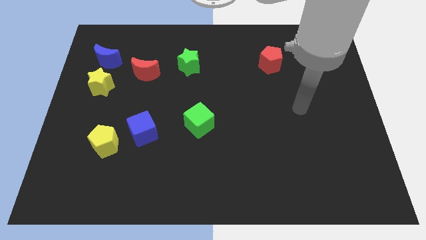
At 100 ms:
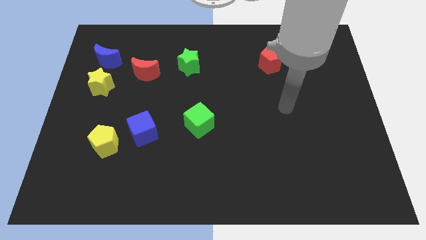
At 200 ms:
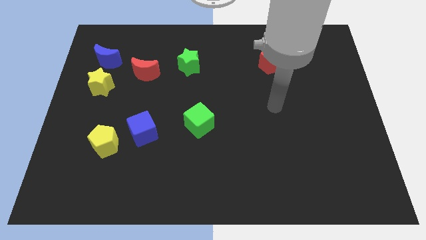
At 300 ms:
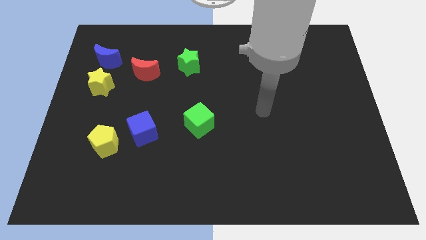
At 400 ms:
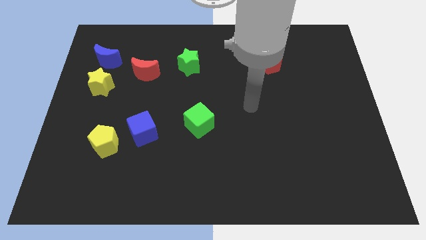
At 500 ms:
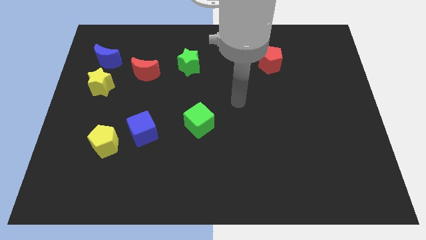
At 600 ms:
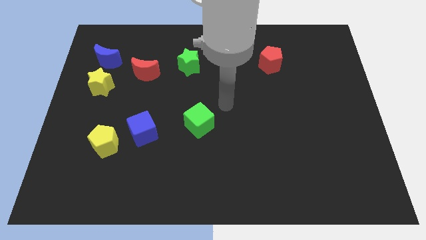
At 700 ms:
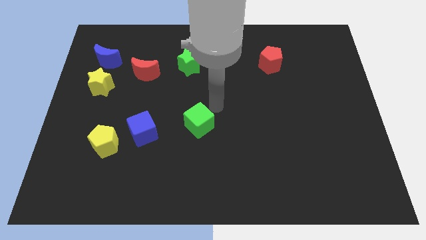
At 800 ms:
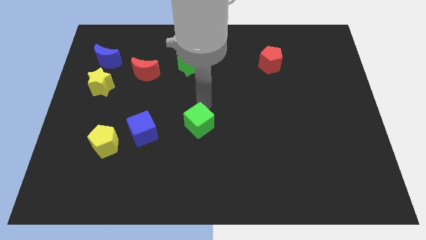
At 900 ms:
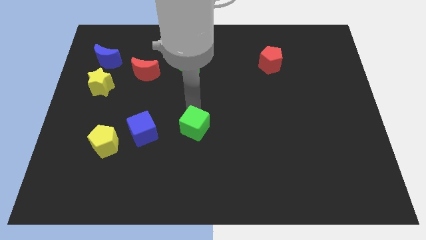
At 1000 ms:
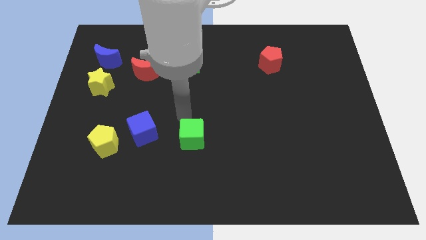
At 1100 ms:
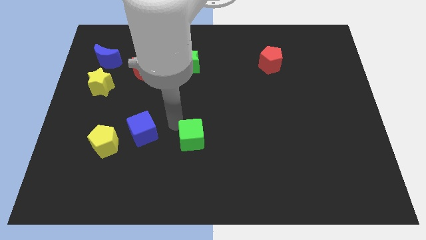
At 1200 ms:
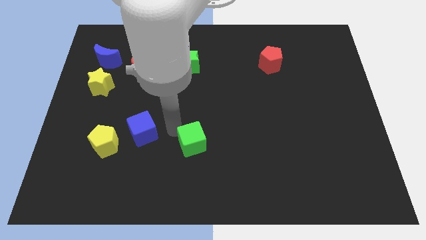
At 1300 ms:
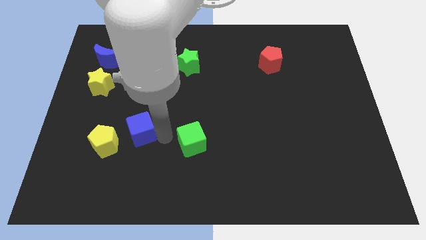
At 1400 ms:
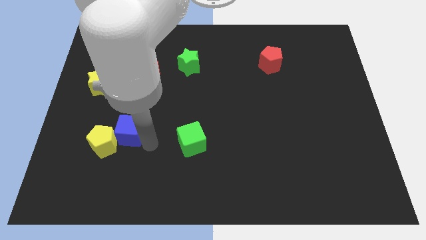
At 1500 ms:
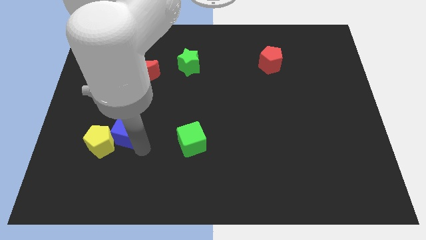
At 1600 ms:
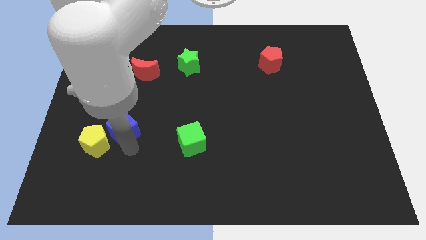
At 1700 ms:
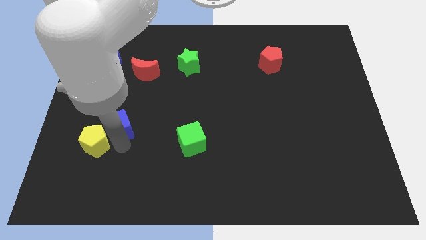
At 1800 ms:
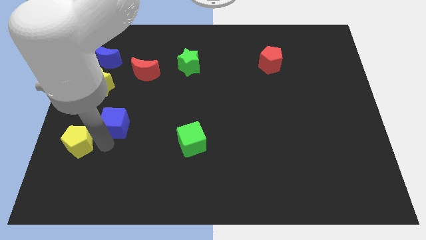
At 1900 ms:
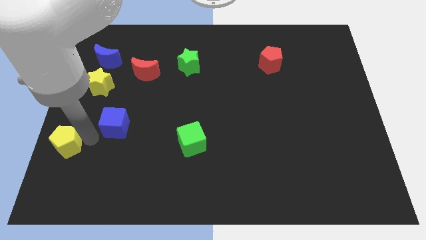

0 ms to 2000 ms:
move the blue cube away from the yellow pentagon

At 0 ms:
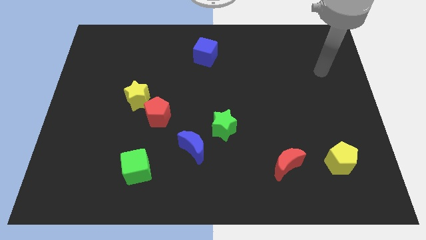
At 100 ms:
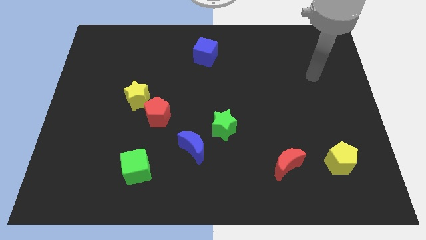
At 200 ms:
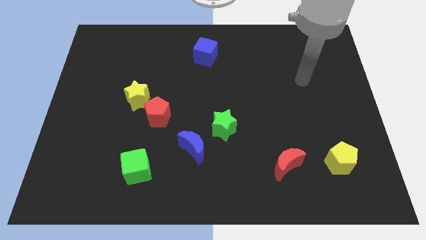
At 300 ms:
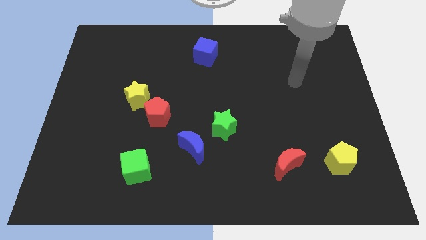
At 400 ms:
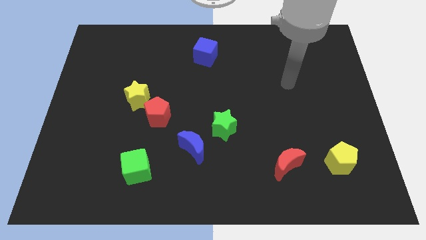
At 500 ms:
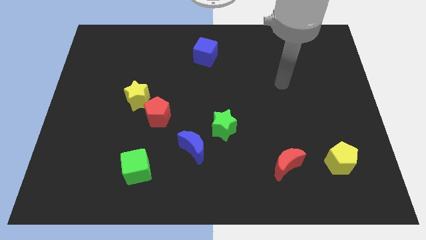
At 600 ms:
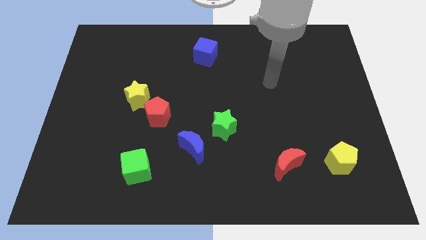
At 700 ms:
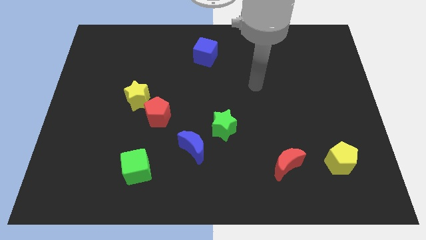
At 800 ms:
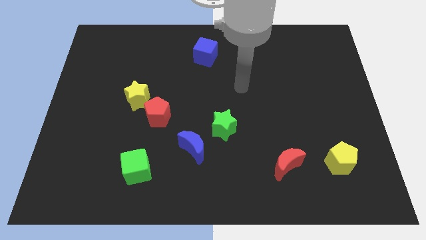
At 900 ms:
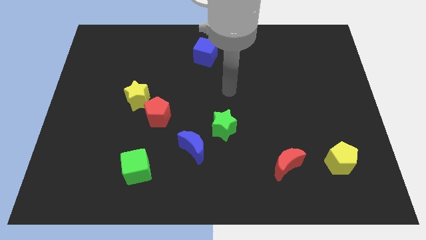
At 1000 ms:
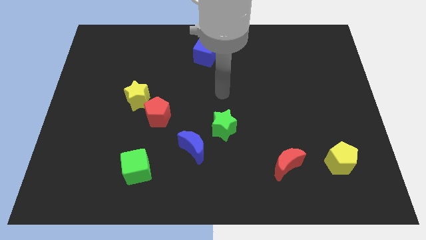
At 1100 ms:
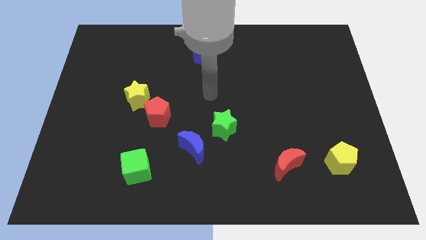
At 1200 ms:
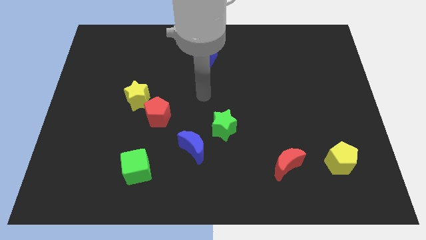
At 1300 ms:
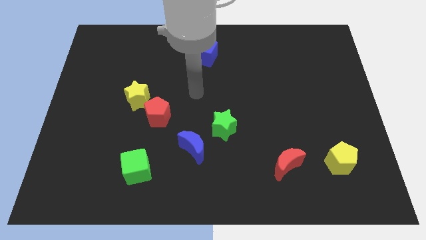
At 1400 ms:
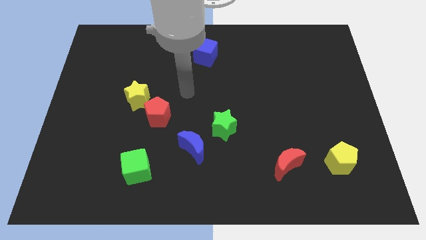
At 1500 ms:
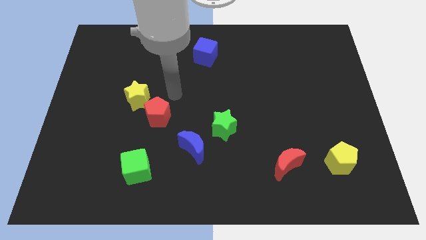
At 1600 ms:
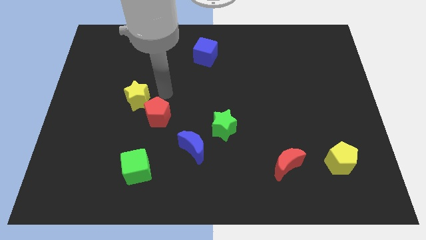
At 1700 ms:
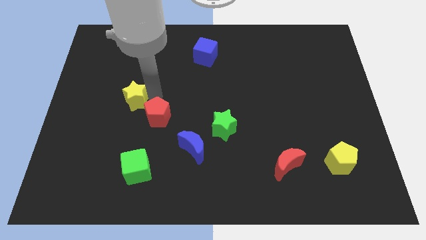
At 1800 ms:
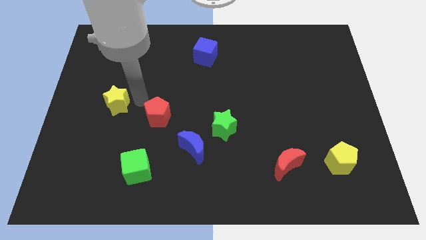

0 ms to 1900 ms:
separate the red pentagon from the yellow star

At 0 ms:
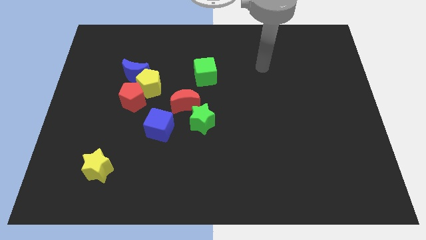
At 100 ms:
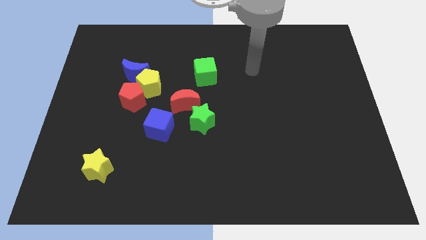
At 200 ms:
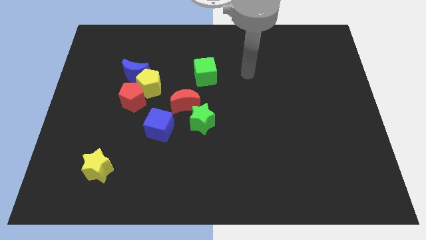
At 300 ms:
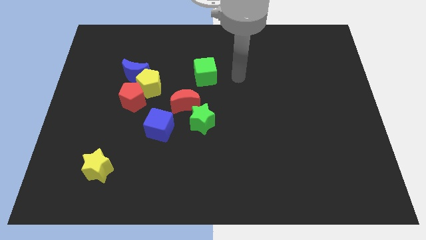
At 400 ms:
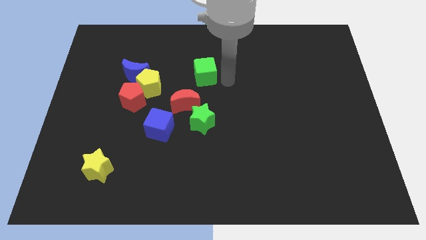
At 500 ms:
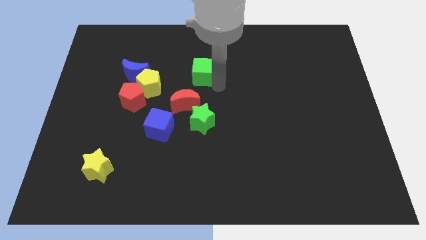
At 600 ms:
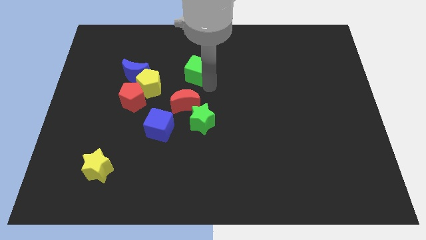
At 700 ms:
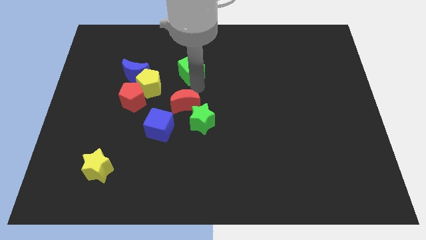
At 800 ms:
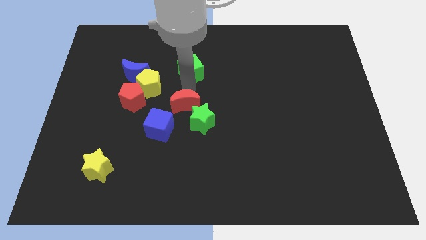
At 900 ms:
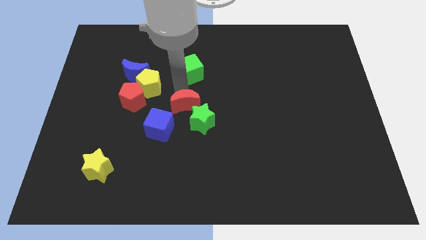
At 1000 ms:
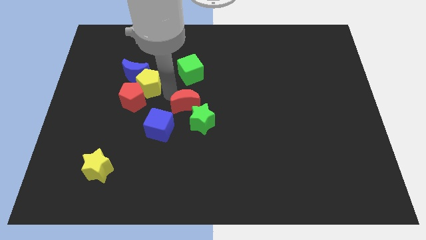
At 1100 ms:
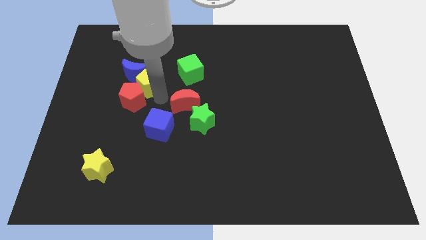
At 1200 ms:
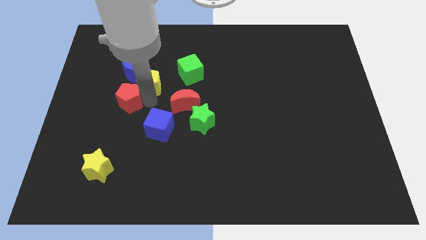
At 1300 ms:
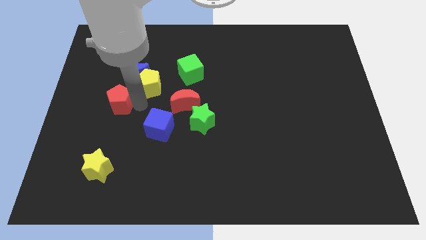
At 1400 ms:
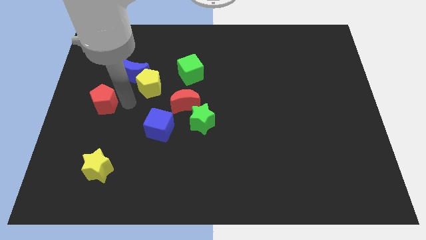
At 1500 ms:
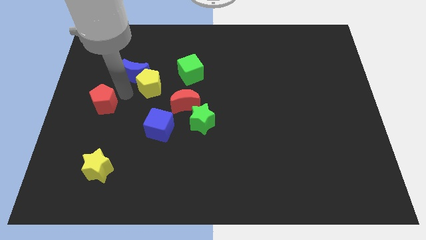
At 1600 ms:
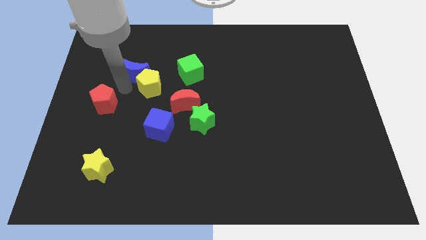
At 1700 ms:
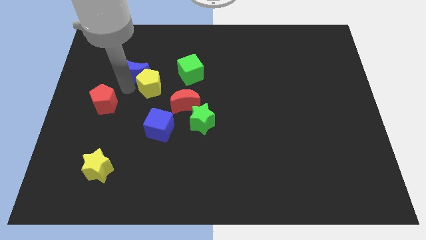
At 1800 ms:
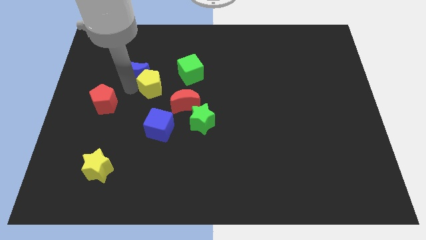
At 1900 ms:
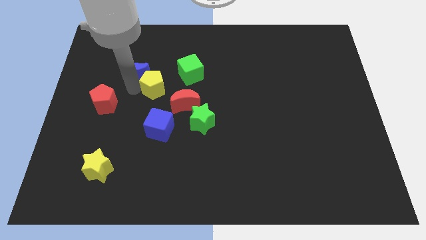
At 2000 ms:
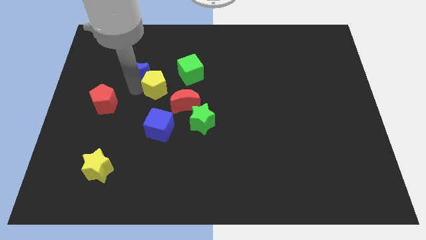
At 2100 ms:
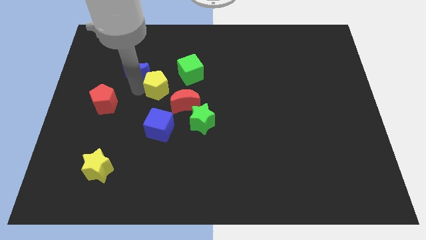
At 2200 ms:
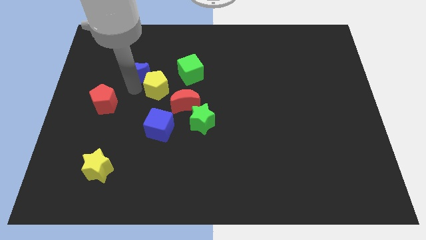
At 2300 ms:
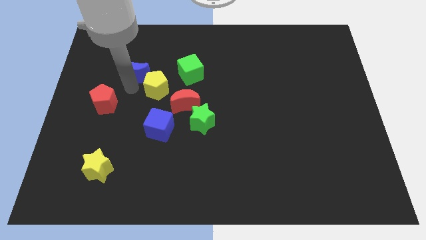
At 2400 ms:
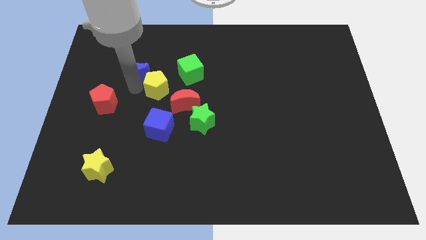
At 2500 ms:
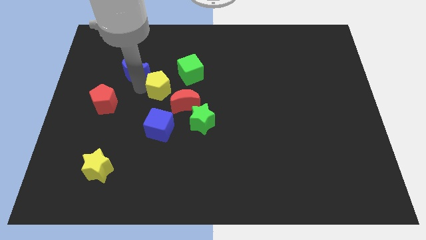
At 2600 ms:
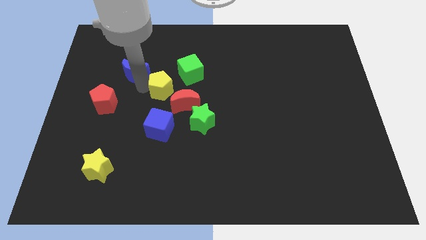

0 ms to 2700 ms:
separate the yellow pentagon from the blue moon and red pentagon

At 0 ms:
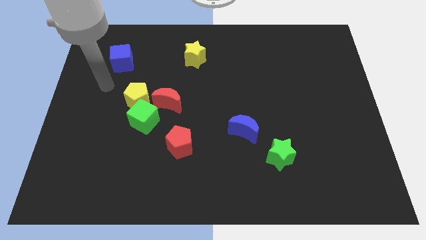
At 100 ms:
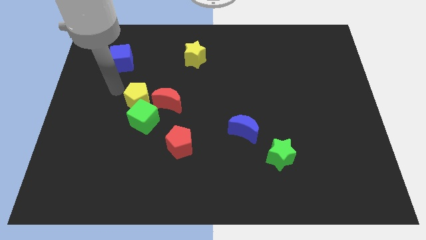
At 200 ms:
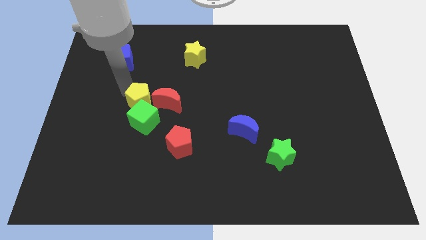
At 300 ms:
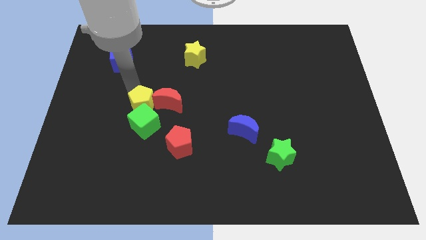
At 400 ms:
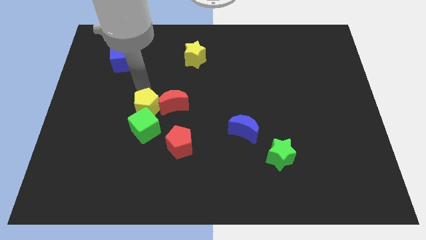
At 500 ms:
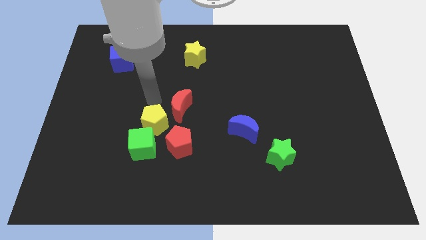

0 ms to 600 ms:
separate the green cube from the yellow pentagon and red moon

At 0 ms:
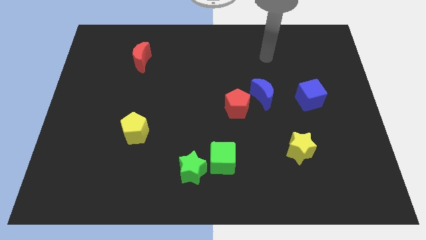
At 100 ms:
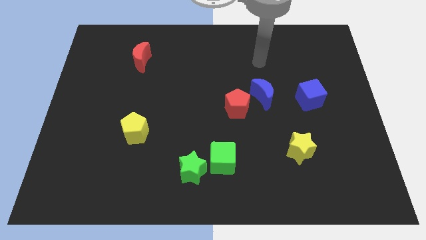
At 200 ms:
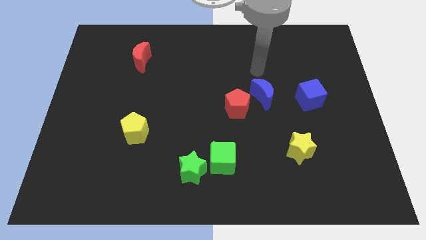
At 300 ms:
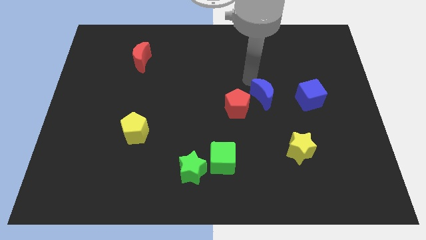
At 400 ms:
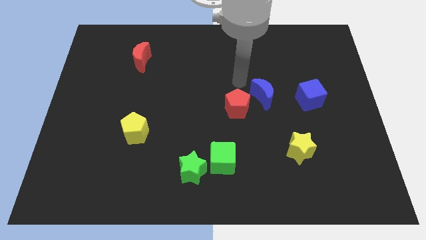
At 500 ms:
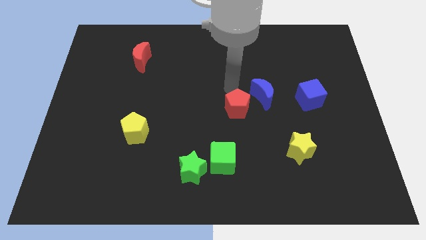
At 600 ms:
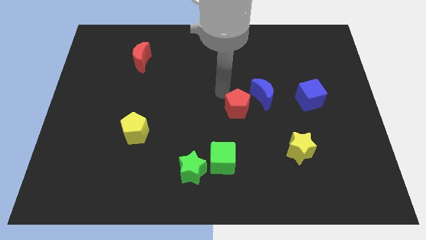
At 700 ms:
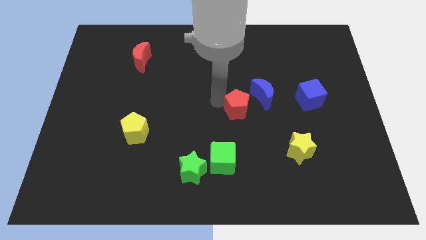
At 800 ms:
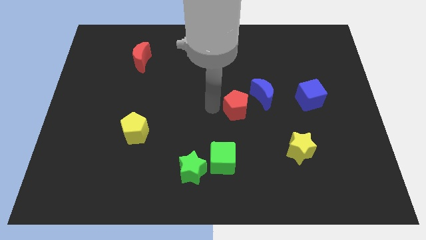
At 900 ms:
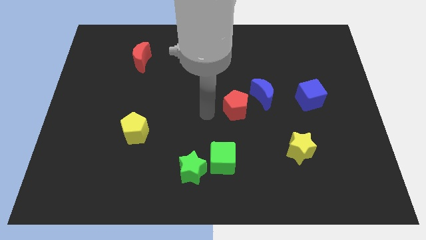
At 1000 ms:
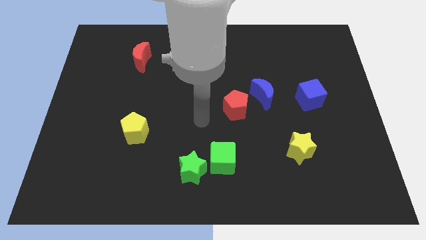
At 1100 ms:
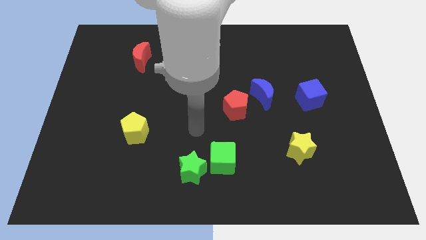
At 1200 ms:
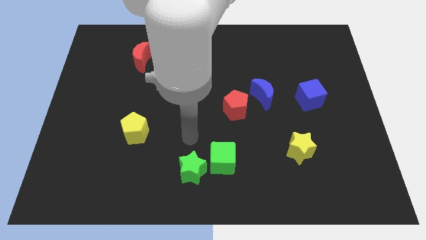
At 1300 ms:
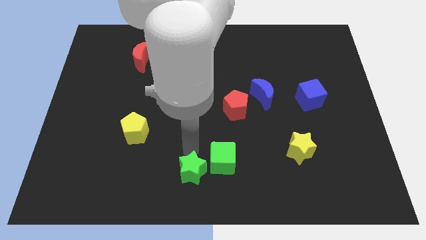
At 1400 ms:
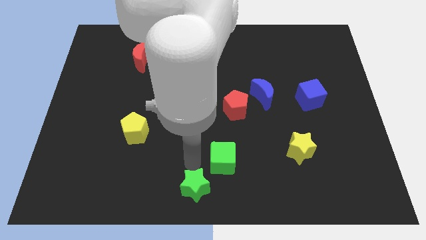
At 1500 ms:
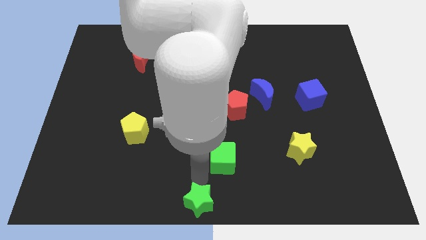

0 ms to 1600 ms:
pull the green cube apart from the green star

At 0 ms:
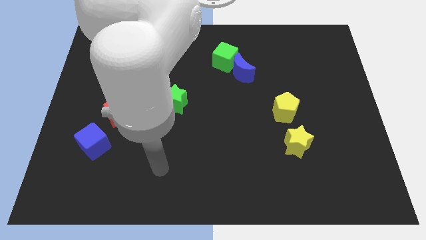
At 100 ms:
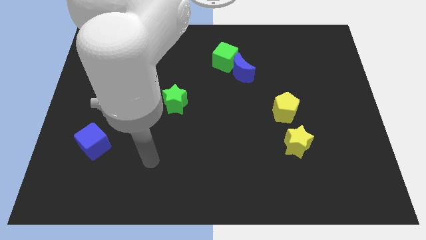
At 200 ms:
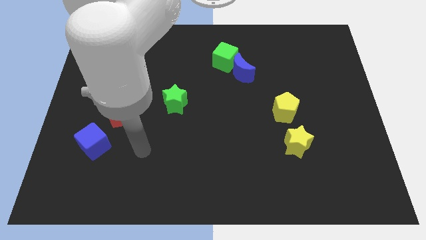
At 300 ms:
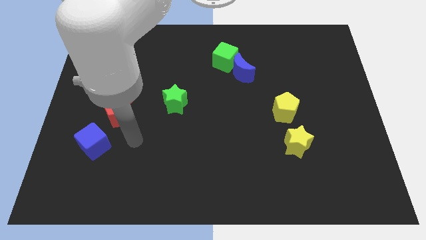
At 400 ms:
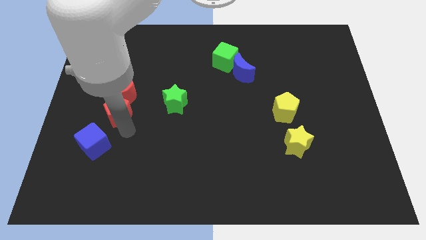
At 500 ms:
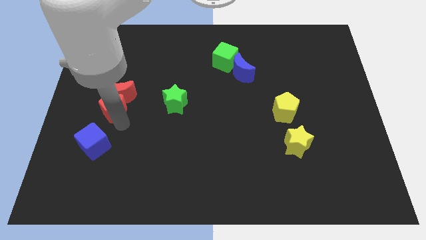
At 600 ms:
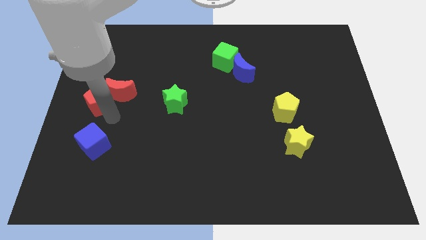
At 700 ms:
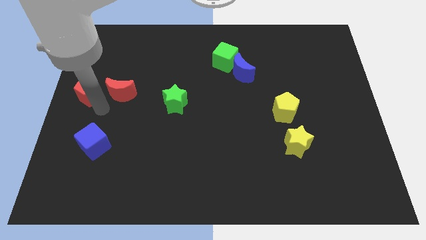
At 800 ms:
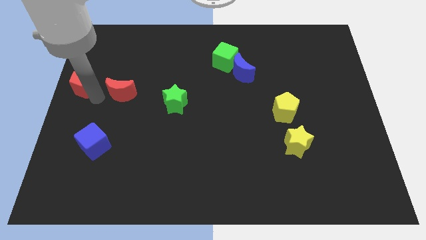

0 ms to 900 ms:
separate the red moon from the red pentagon
